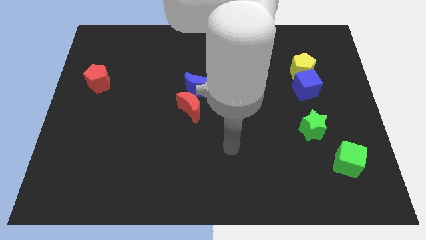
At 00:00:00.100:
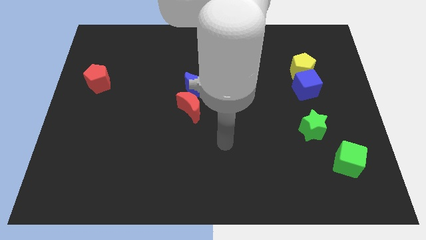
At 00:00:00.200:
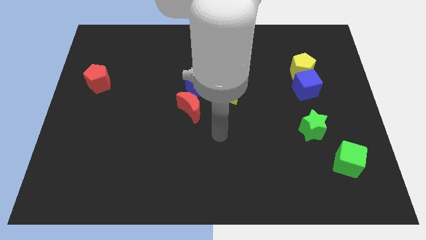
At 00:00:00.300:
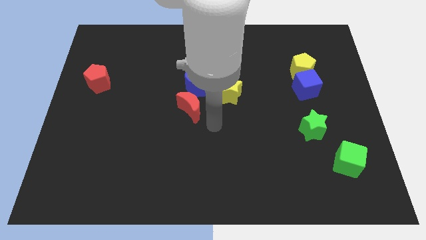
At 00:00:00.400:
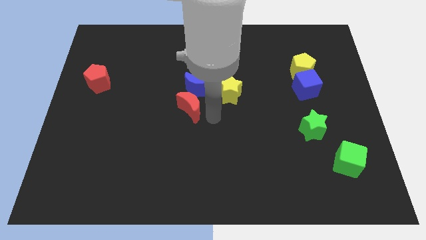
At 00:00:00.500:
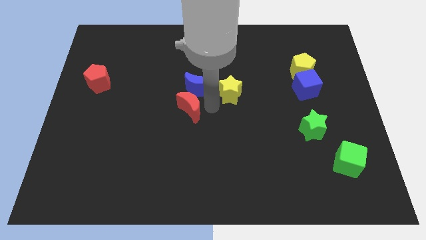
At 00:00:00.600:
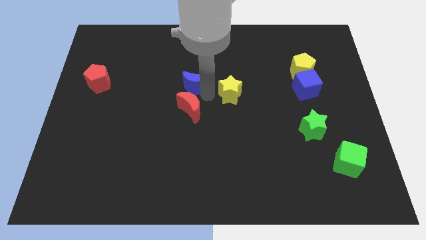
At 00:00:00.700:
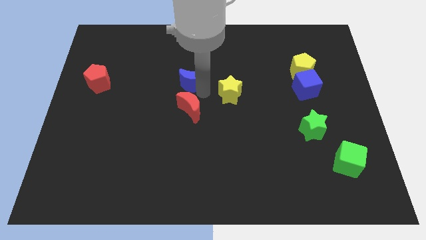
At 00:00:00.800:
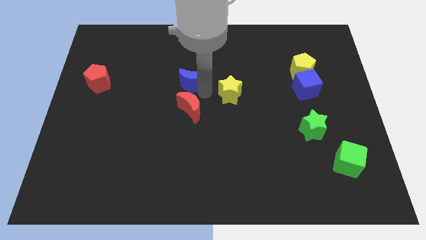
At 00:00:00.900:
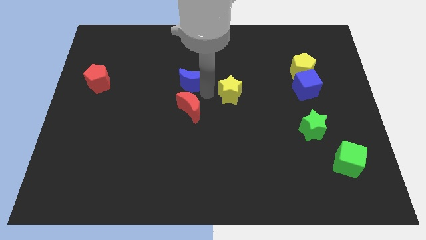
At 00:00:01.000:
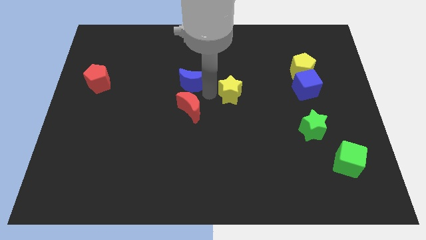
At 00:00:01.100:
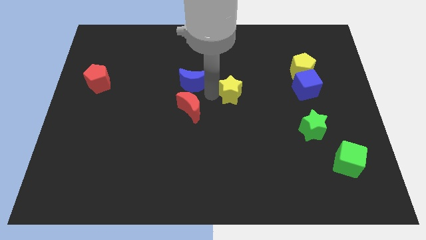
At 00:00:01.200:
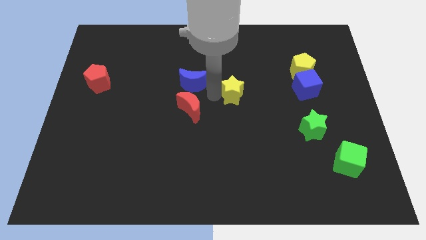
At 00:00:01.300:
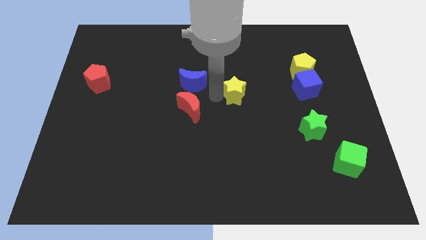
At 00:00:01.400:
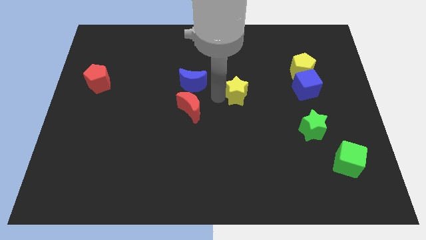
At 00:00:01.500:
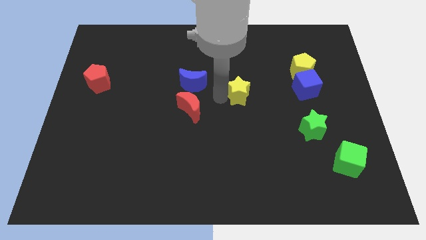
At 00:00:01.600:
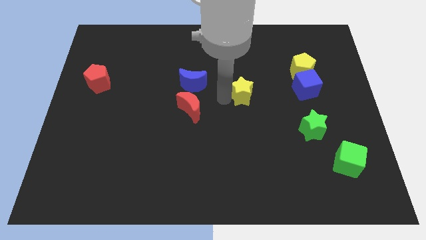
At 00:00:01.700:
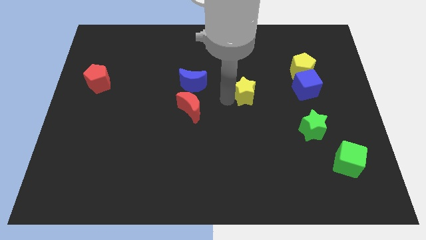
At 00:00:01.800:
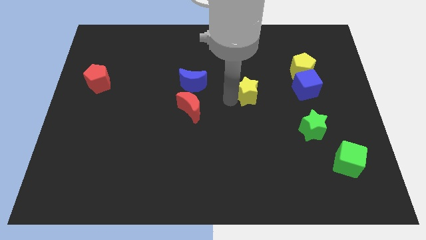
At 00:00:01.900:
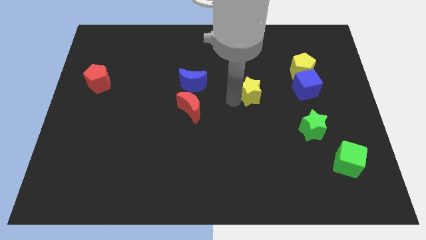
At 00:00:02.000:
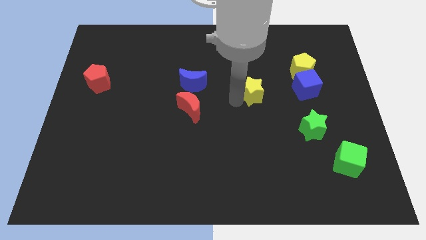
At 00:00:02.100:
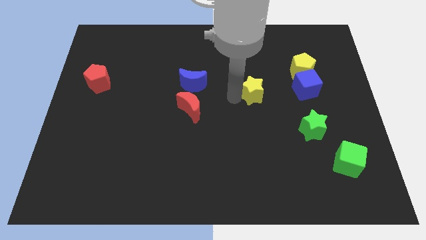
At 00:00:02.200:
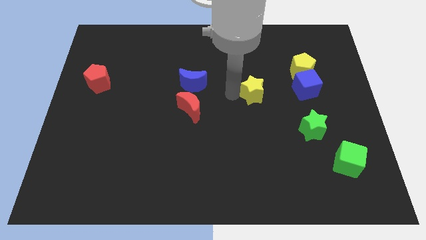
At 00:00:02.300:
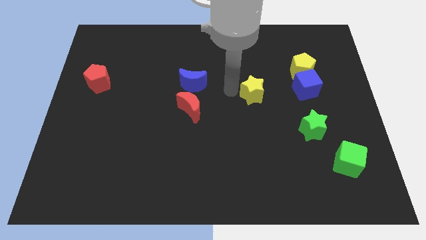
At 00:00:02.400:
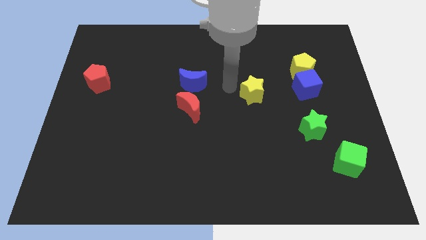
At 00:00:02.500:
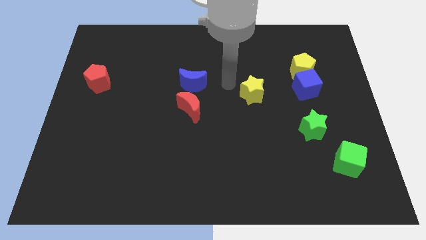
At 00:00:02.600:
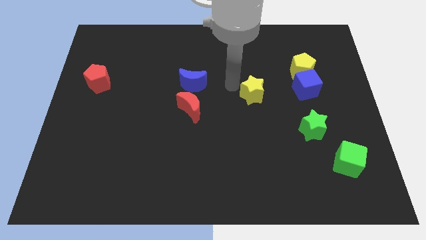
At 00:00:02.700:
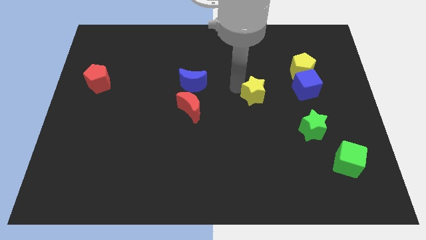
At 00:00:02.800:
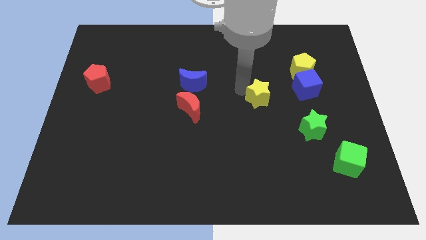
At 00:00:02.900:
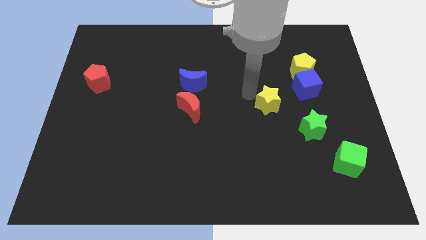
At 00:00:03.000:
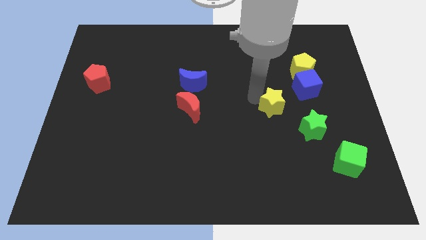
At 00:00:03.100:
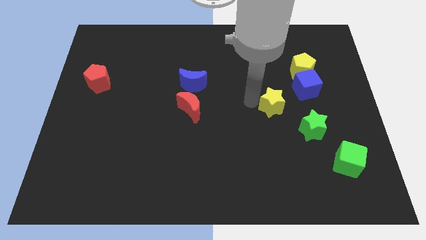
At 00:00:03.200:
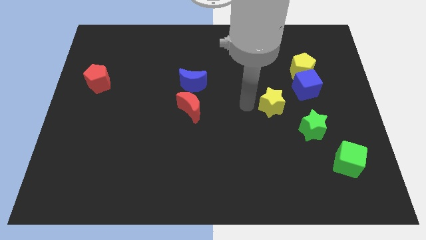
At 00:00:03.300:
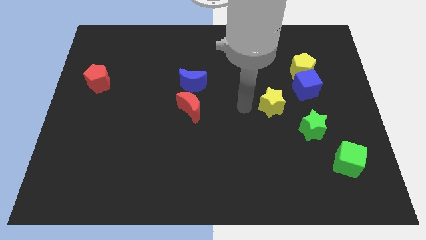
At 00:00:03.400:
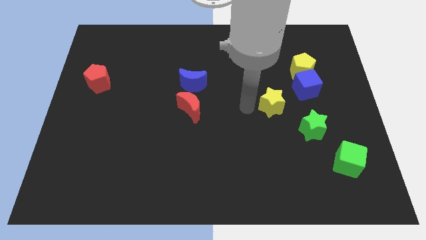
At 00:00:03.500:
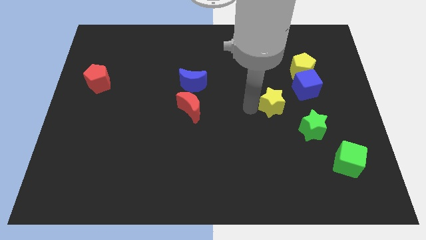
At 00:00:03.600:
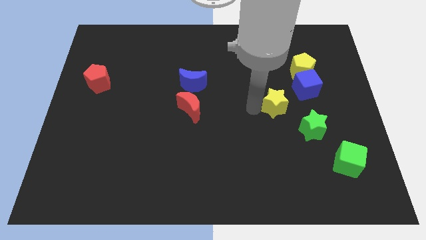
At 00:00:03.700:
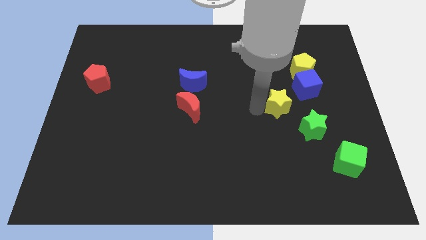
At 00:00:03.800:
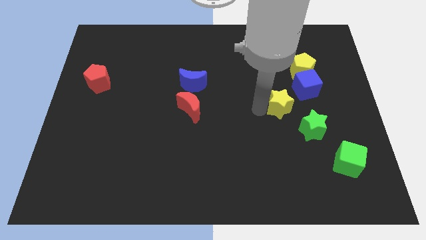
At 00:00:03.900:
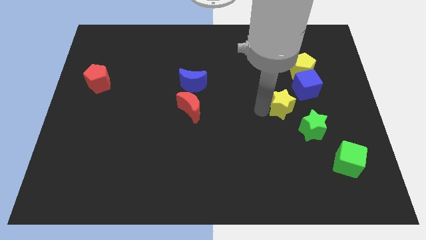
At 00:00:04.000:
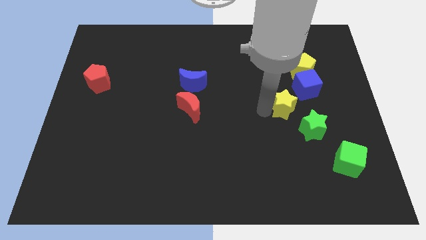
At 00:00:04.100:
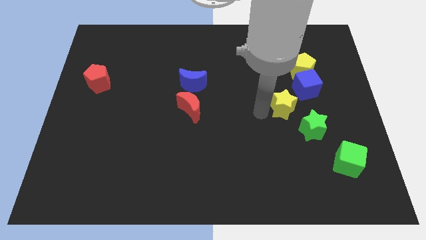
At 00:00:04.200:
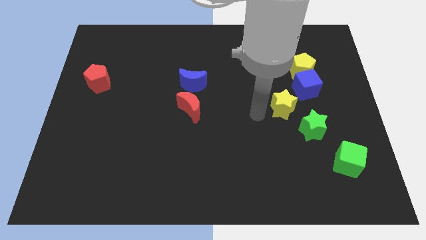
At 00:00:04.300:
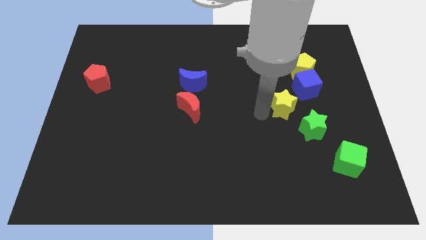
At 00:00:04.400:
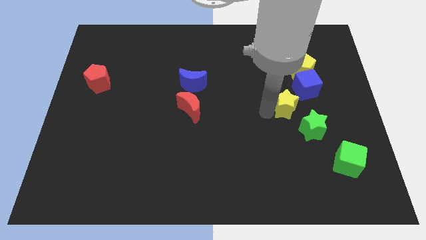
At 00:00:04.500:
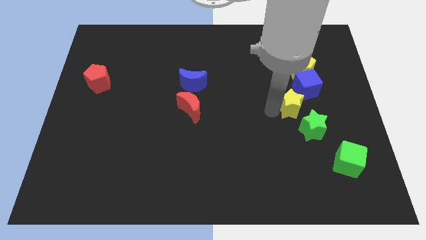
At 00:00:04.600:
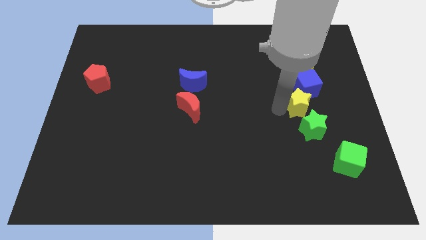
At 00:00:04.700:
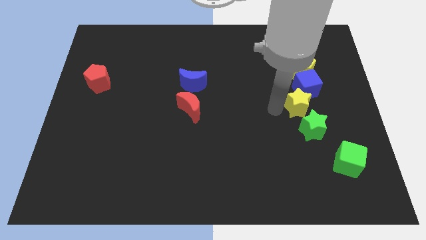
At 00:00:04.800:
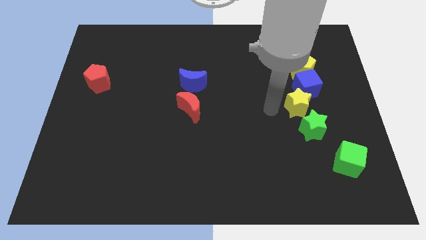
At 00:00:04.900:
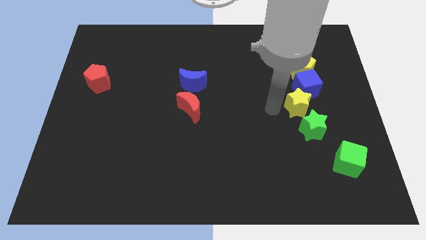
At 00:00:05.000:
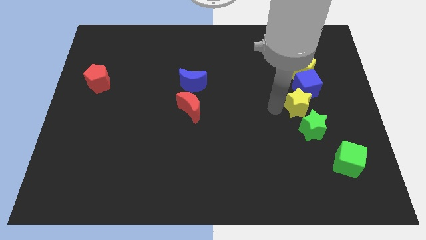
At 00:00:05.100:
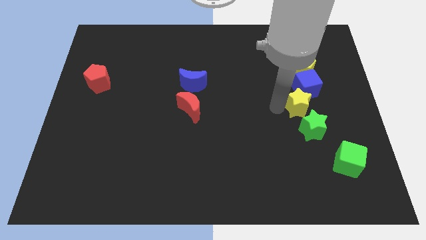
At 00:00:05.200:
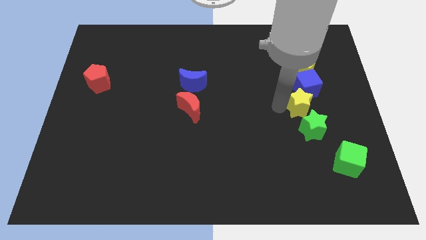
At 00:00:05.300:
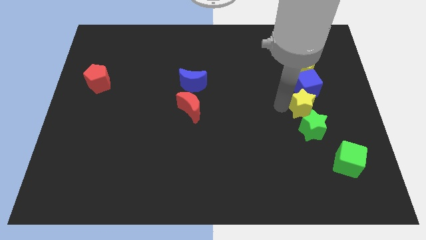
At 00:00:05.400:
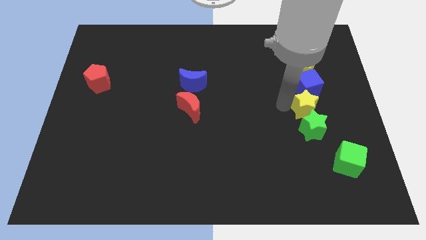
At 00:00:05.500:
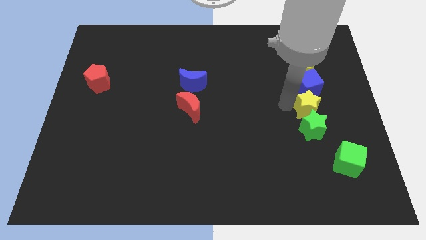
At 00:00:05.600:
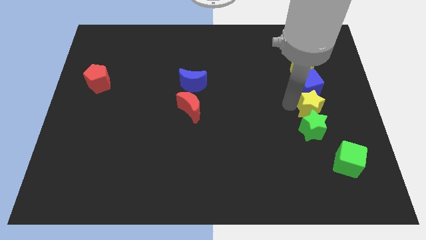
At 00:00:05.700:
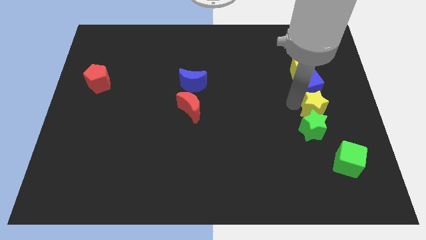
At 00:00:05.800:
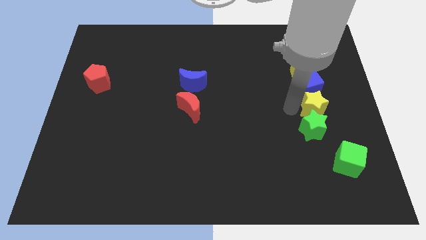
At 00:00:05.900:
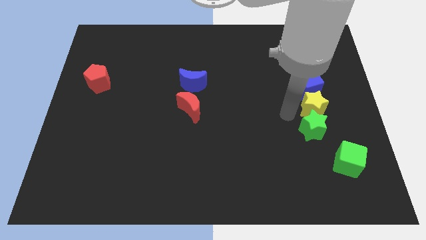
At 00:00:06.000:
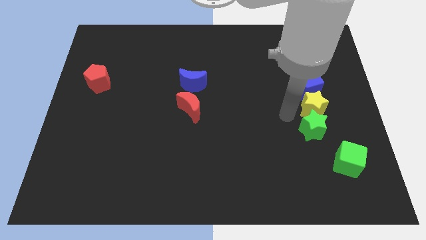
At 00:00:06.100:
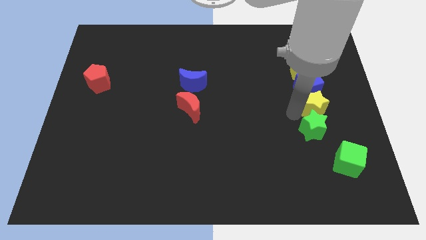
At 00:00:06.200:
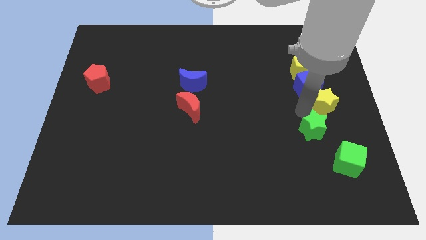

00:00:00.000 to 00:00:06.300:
push the yellow star to the center right

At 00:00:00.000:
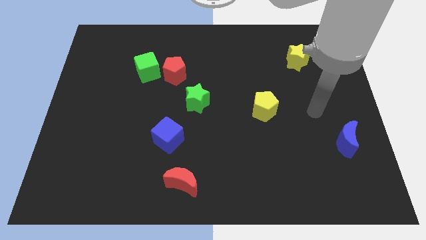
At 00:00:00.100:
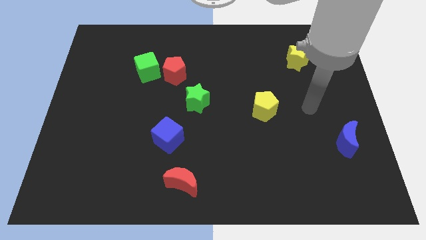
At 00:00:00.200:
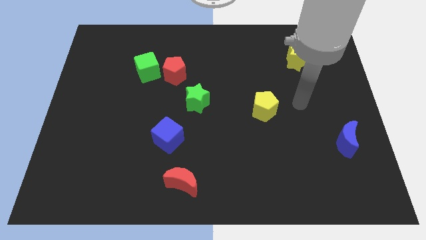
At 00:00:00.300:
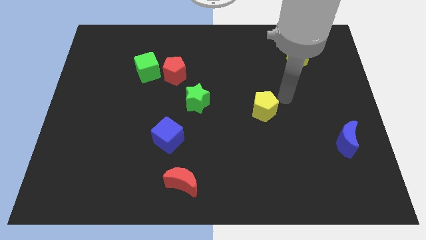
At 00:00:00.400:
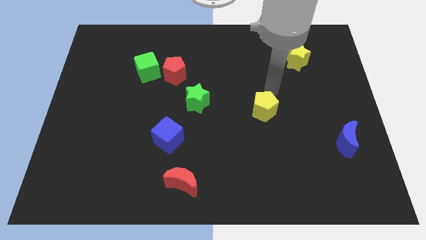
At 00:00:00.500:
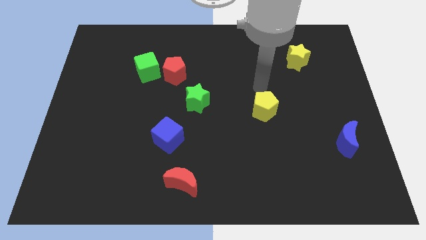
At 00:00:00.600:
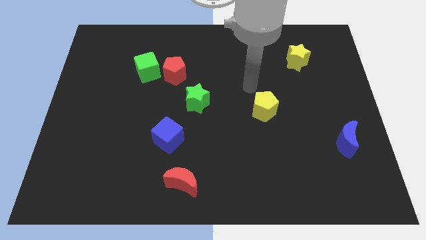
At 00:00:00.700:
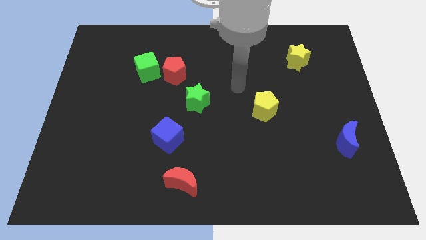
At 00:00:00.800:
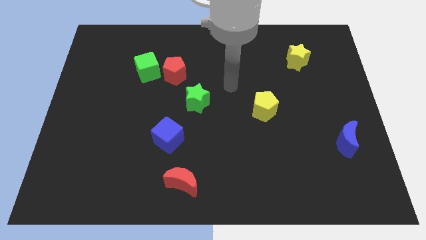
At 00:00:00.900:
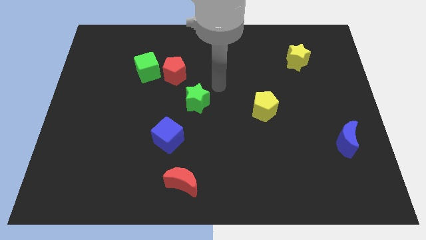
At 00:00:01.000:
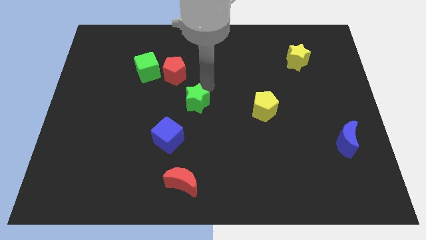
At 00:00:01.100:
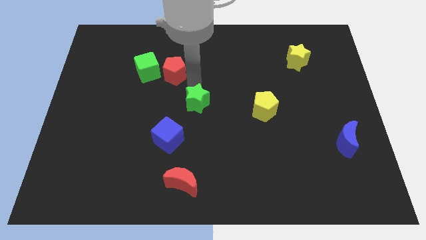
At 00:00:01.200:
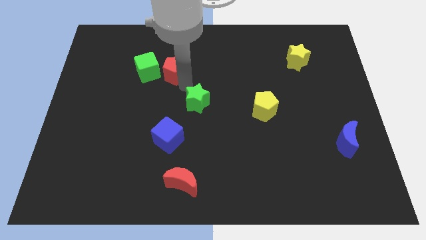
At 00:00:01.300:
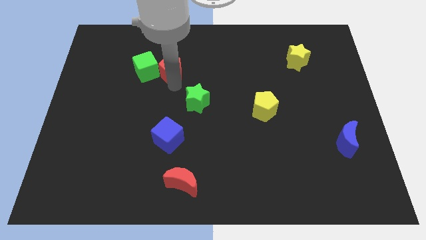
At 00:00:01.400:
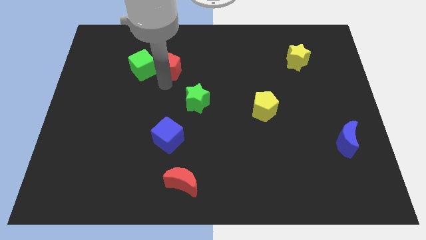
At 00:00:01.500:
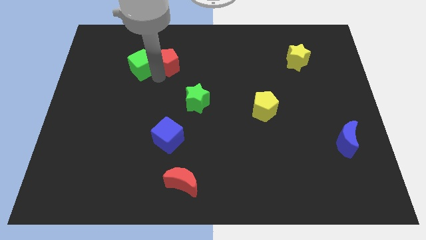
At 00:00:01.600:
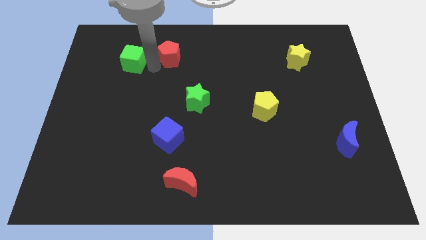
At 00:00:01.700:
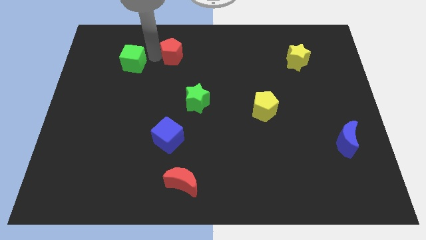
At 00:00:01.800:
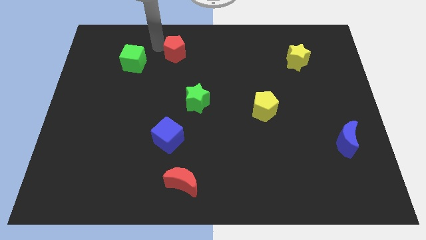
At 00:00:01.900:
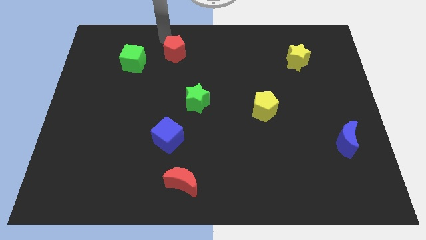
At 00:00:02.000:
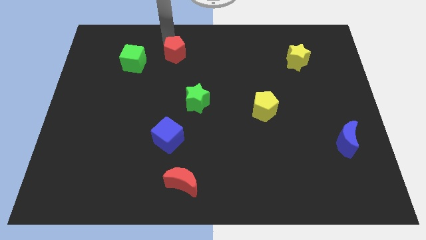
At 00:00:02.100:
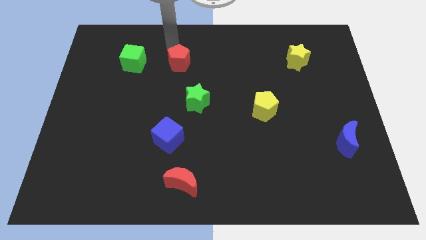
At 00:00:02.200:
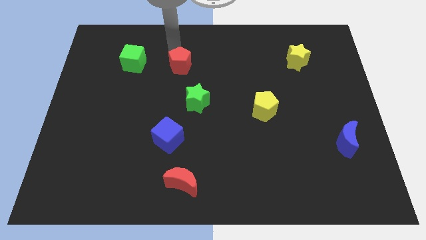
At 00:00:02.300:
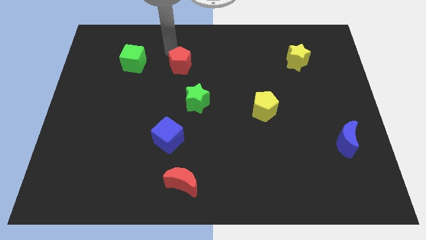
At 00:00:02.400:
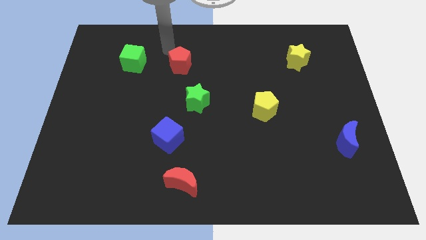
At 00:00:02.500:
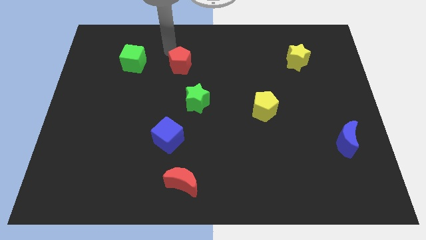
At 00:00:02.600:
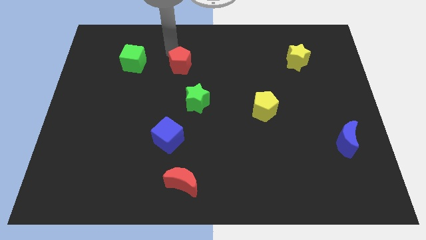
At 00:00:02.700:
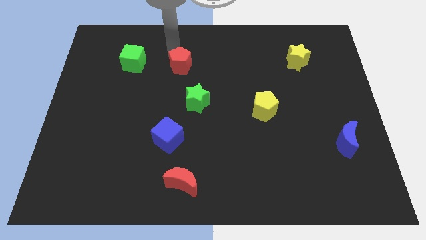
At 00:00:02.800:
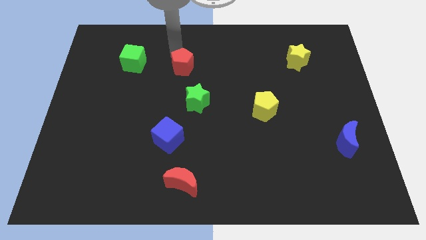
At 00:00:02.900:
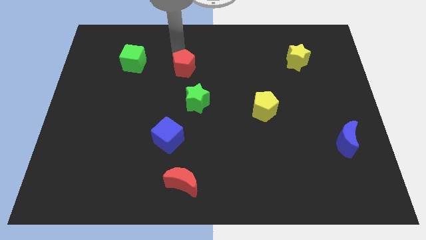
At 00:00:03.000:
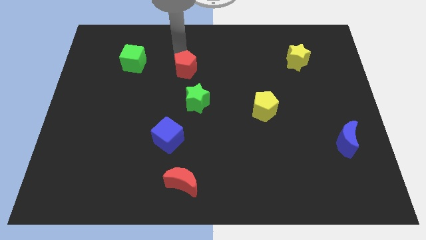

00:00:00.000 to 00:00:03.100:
slide the red pentagon to the middle
